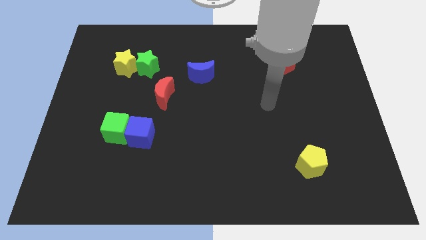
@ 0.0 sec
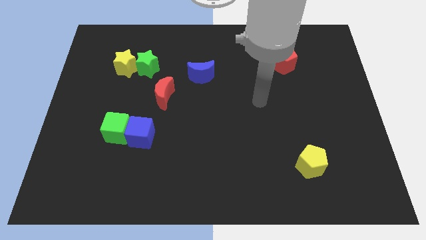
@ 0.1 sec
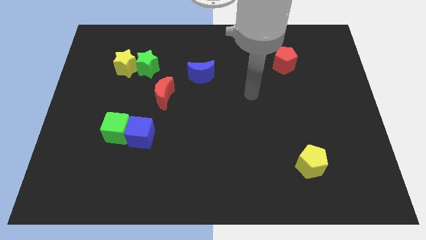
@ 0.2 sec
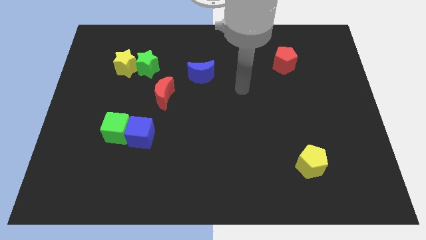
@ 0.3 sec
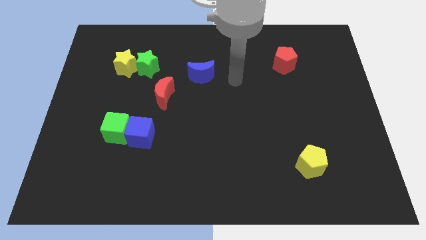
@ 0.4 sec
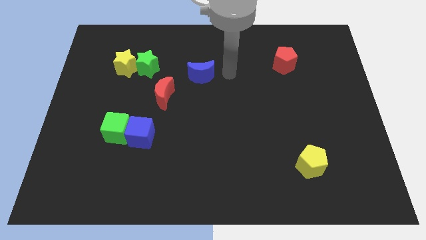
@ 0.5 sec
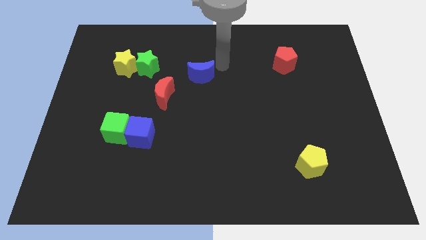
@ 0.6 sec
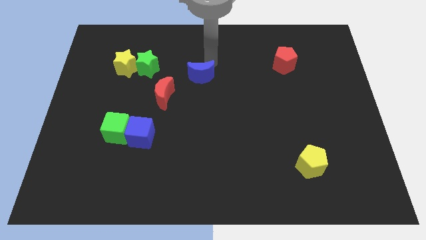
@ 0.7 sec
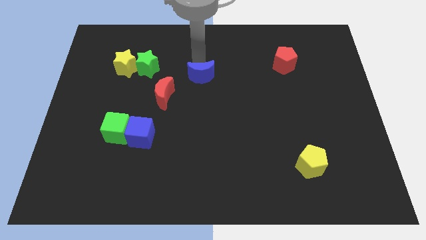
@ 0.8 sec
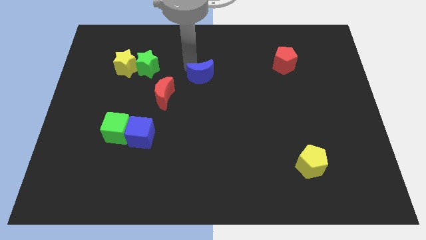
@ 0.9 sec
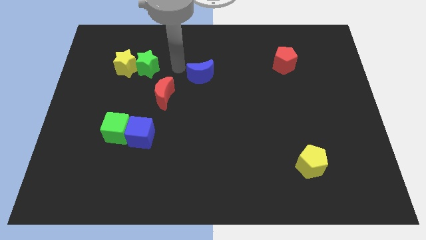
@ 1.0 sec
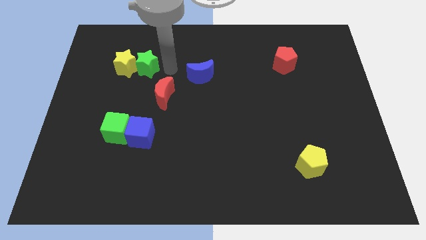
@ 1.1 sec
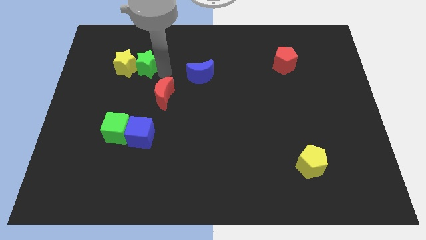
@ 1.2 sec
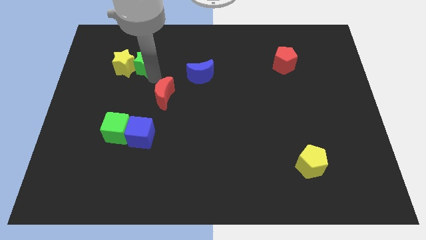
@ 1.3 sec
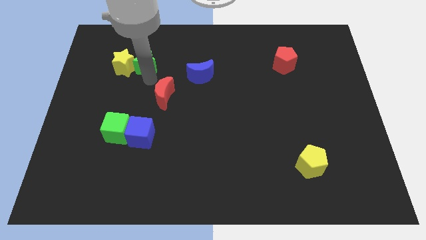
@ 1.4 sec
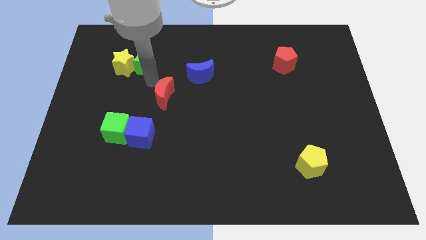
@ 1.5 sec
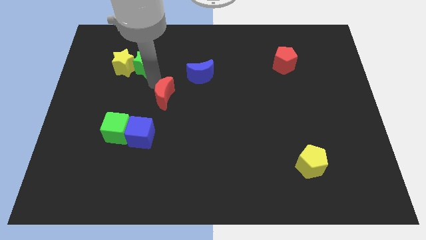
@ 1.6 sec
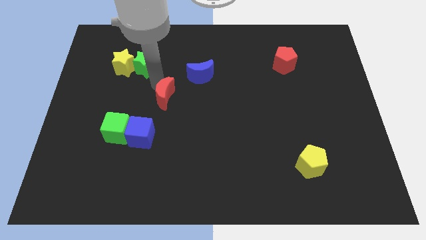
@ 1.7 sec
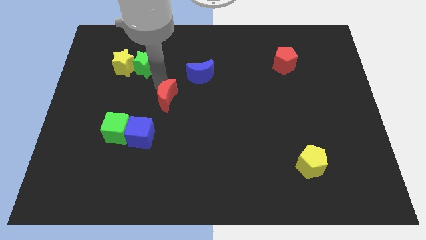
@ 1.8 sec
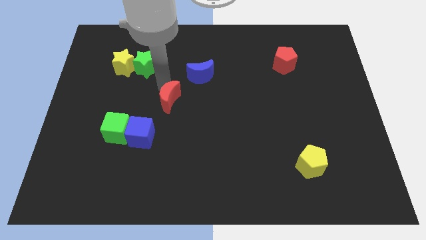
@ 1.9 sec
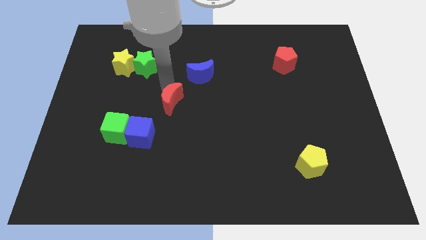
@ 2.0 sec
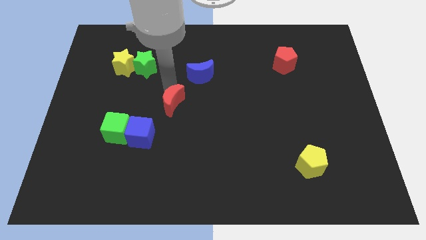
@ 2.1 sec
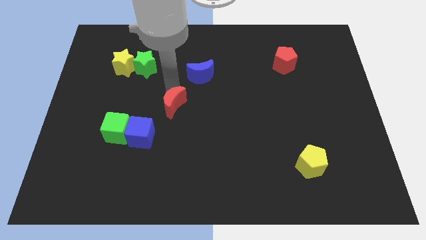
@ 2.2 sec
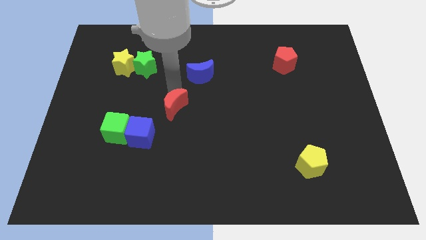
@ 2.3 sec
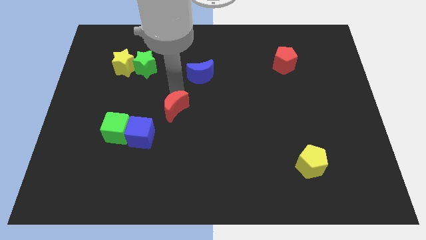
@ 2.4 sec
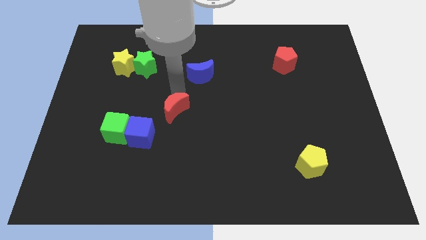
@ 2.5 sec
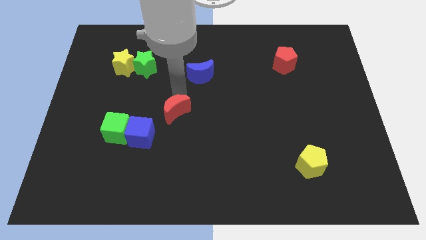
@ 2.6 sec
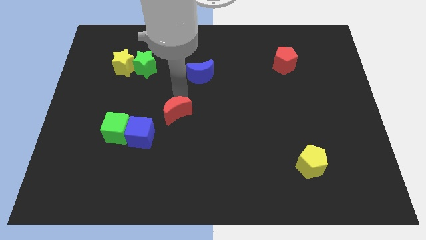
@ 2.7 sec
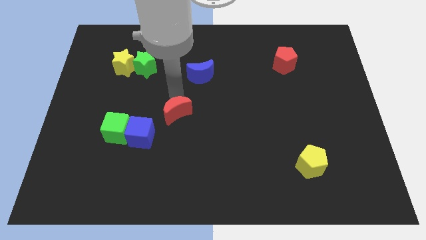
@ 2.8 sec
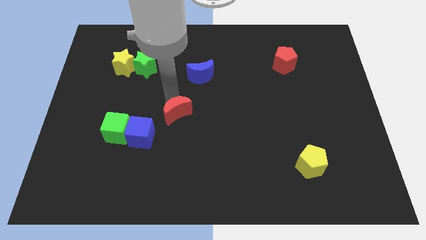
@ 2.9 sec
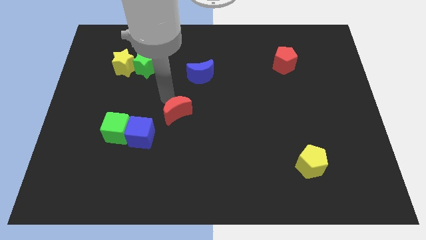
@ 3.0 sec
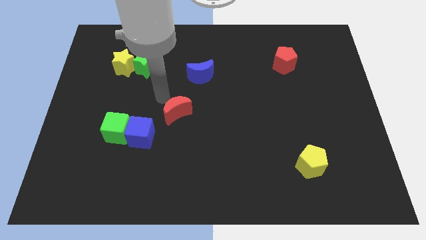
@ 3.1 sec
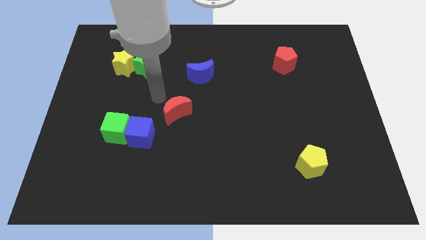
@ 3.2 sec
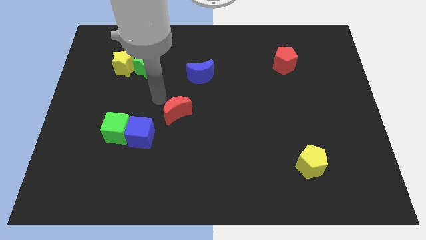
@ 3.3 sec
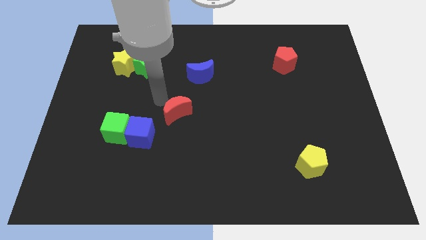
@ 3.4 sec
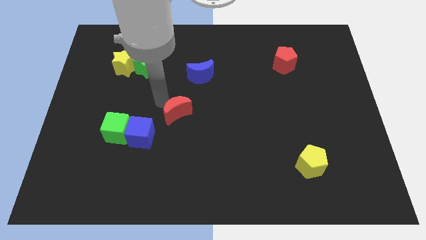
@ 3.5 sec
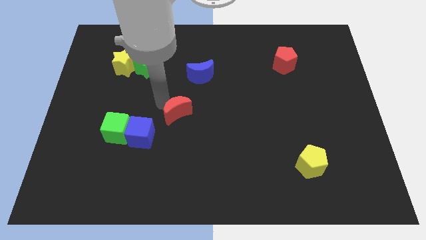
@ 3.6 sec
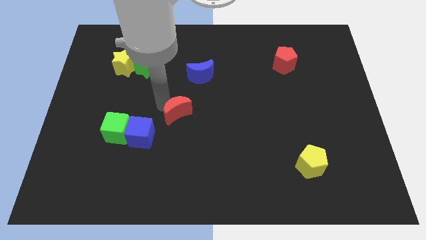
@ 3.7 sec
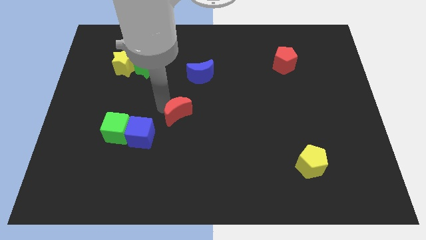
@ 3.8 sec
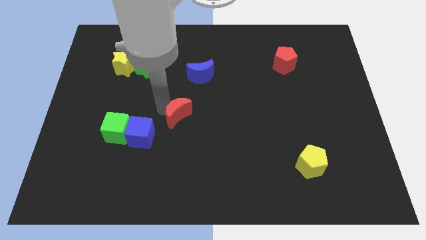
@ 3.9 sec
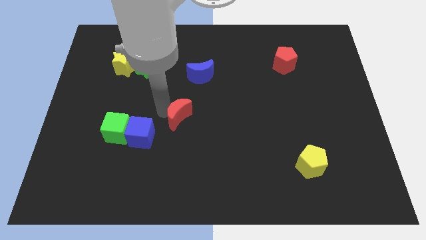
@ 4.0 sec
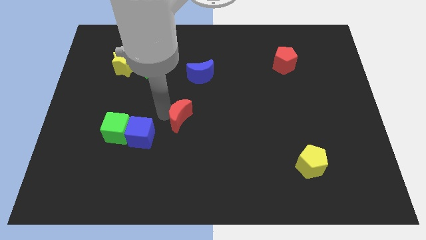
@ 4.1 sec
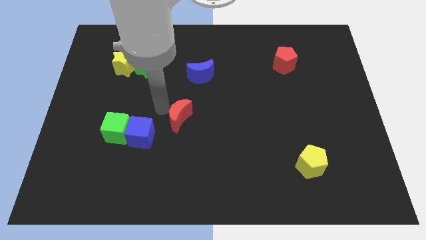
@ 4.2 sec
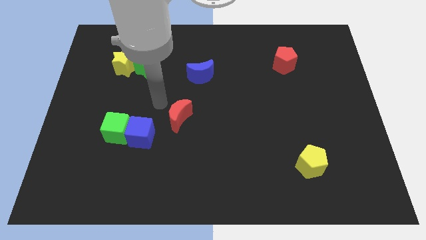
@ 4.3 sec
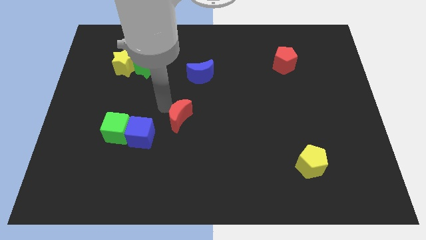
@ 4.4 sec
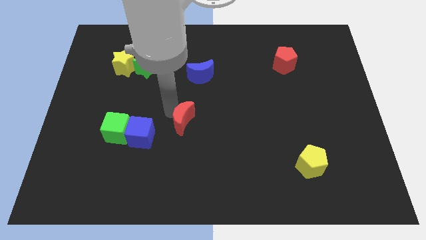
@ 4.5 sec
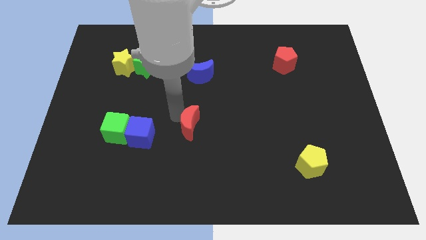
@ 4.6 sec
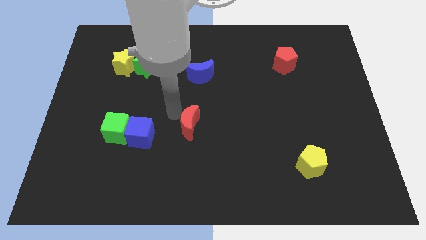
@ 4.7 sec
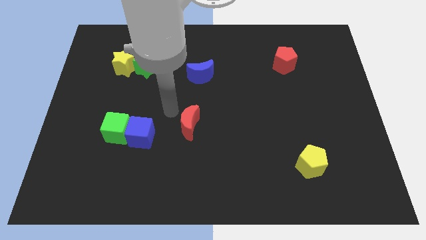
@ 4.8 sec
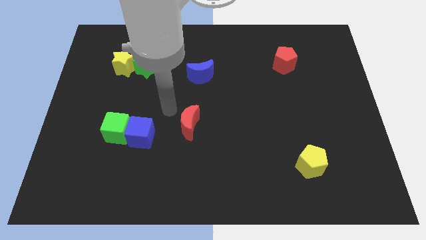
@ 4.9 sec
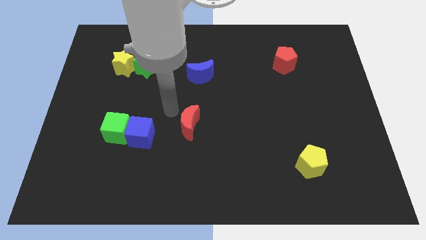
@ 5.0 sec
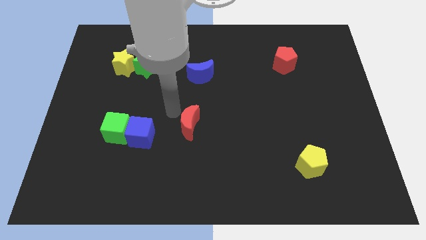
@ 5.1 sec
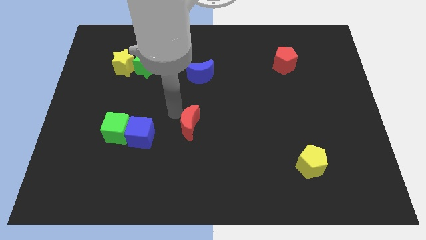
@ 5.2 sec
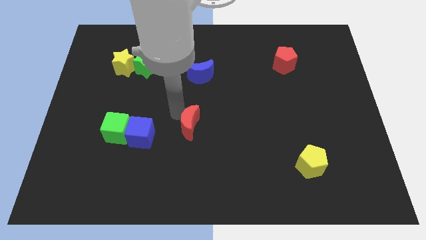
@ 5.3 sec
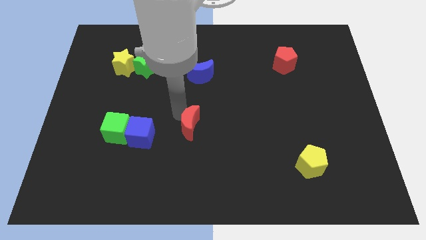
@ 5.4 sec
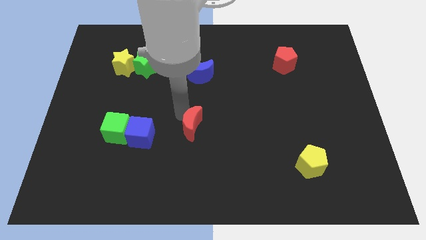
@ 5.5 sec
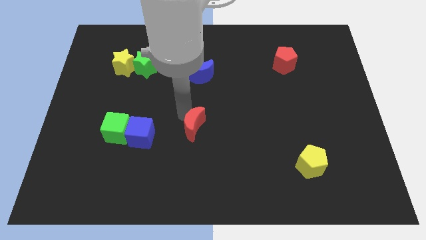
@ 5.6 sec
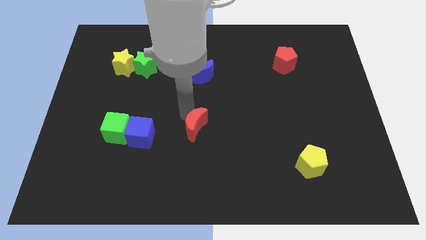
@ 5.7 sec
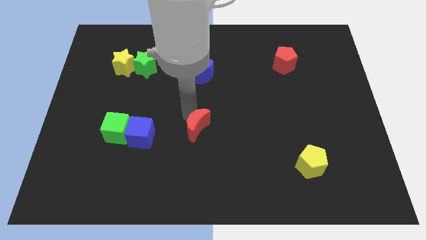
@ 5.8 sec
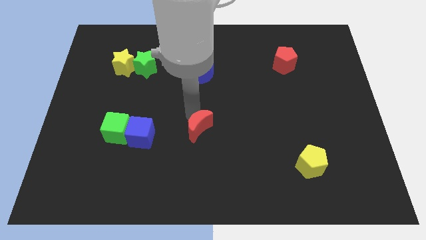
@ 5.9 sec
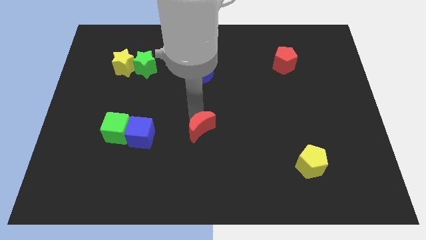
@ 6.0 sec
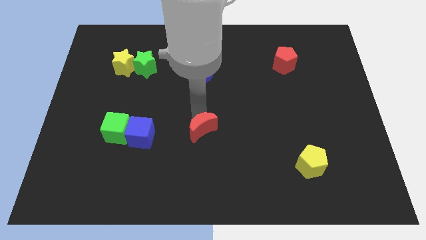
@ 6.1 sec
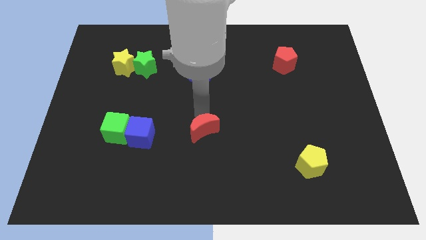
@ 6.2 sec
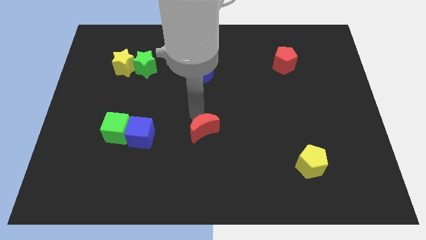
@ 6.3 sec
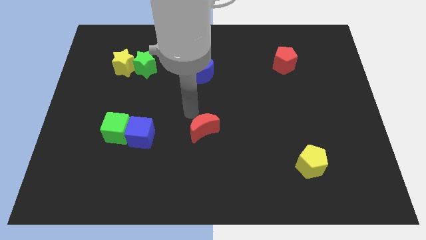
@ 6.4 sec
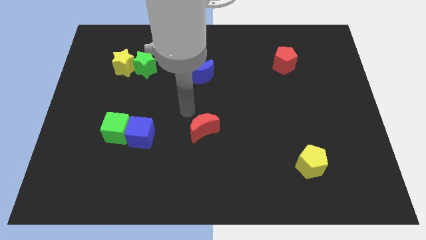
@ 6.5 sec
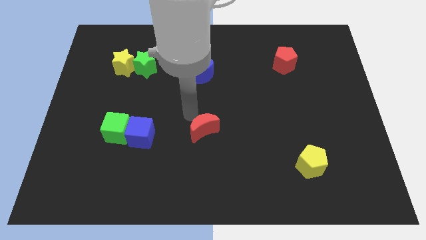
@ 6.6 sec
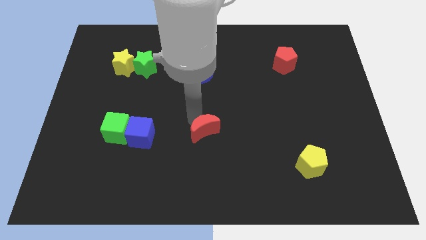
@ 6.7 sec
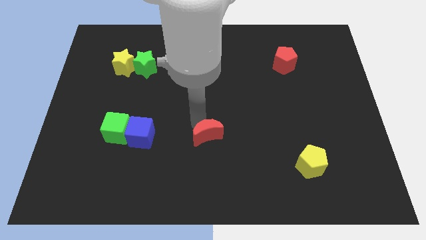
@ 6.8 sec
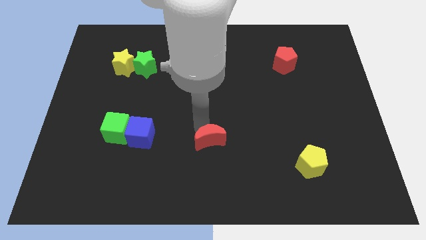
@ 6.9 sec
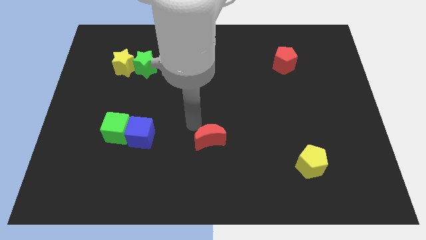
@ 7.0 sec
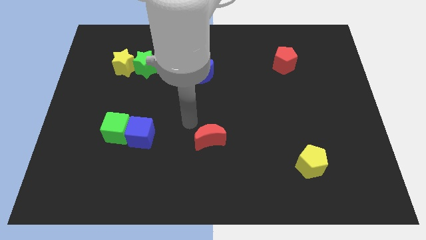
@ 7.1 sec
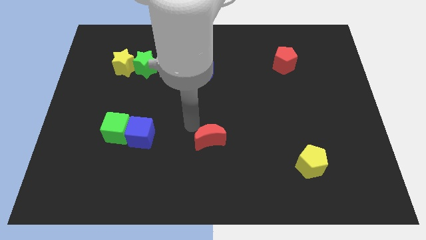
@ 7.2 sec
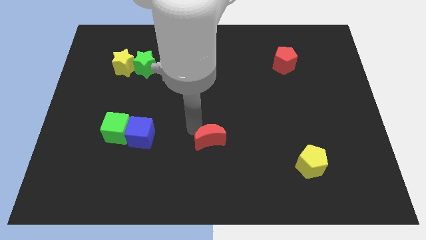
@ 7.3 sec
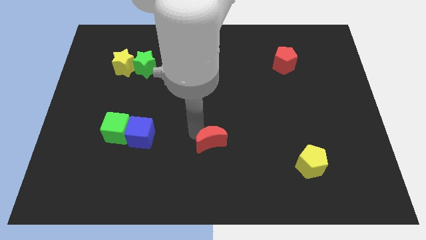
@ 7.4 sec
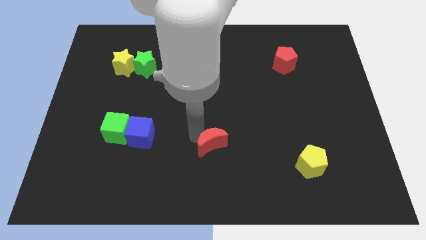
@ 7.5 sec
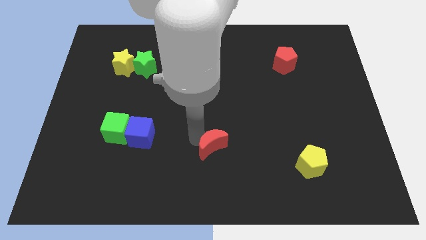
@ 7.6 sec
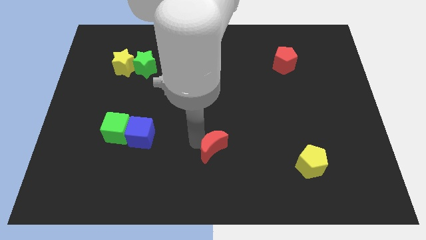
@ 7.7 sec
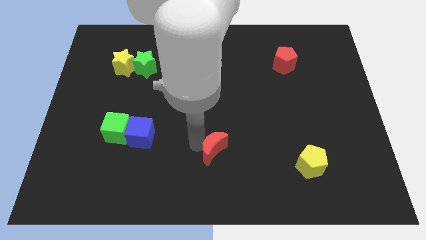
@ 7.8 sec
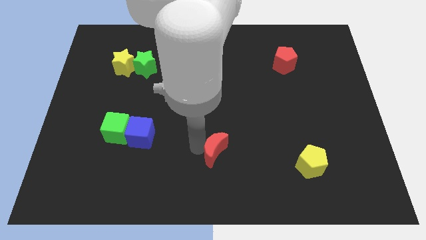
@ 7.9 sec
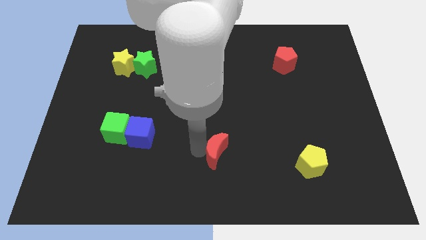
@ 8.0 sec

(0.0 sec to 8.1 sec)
move the red moon diagonally downwards and right
